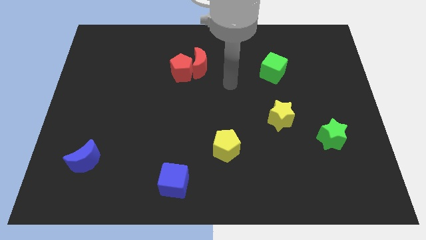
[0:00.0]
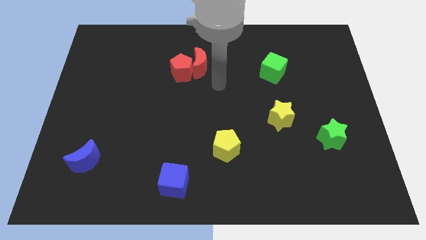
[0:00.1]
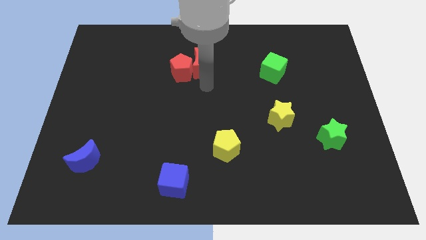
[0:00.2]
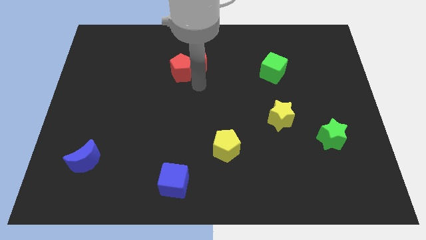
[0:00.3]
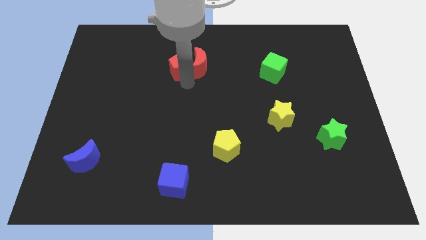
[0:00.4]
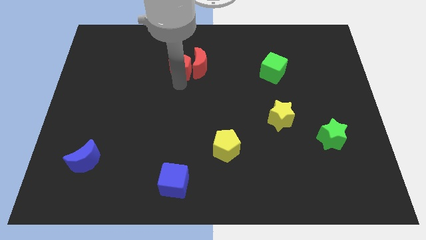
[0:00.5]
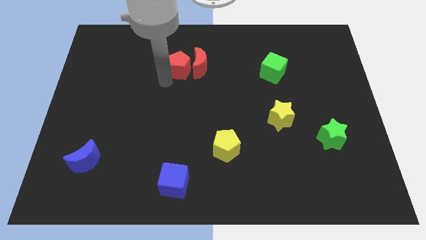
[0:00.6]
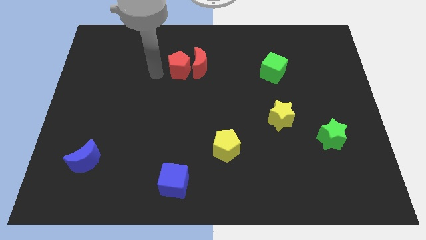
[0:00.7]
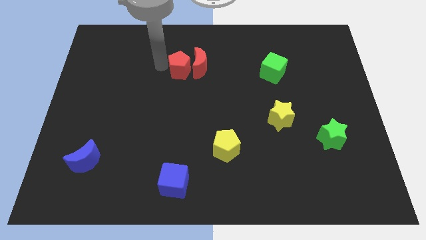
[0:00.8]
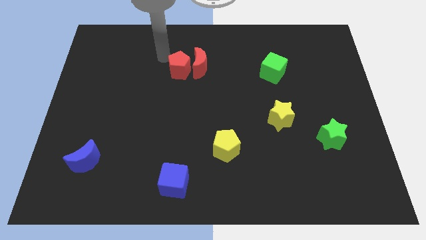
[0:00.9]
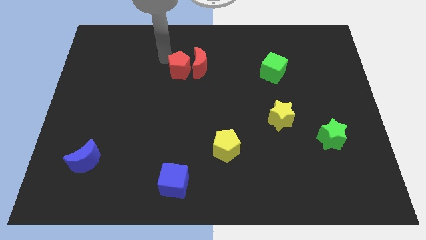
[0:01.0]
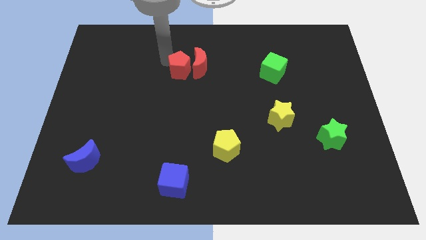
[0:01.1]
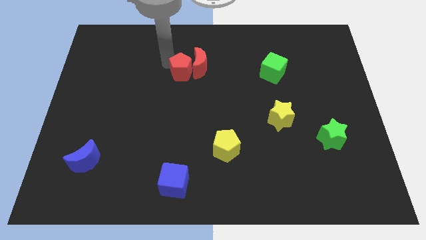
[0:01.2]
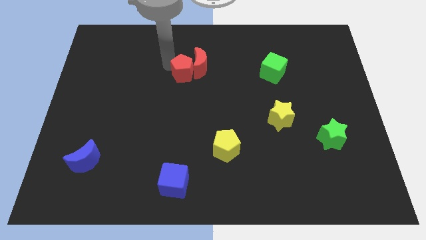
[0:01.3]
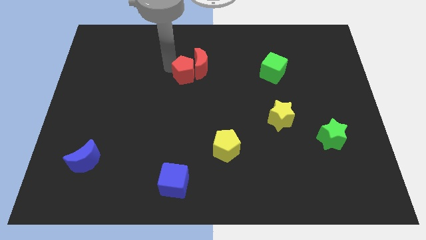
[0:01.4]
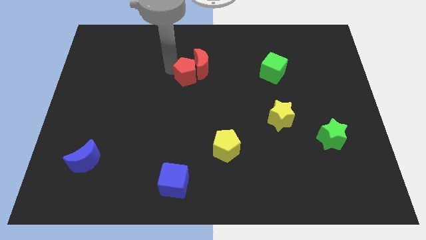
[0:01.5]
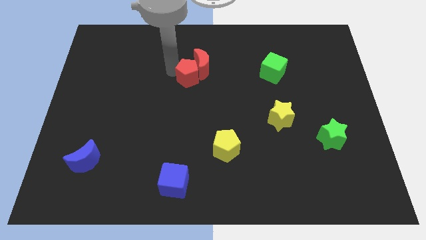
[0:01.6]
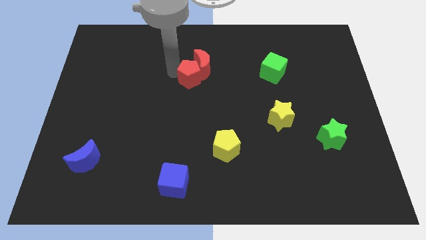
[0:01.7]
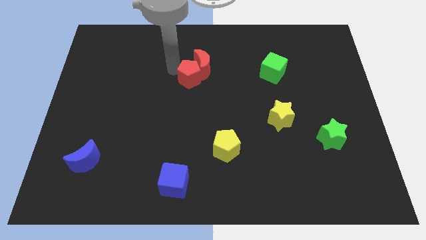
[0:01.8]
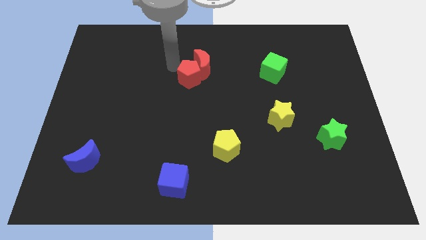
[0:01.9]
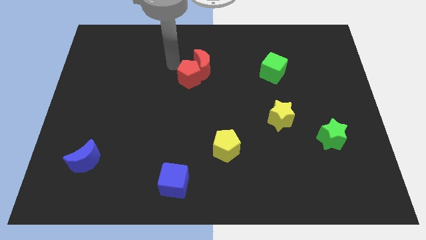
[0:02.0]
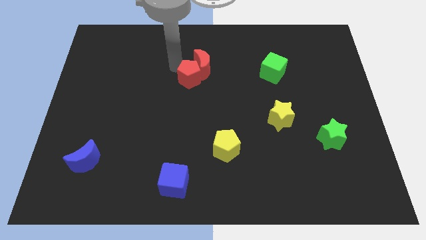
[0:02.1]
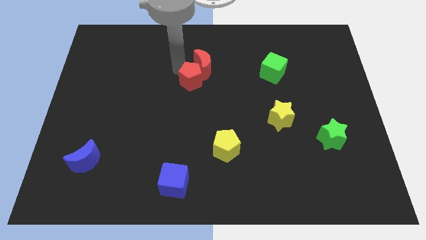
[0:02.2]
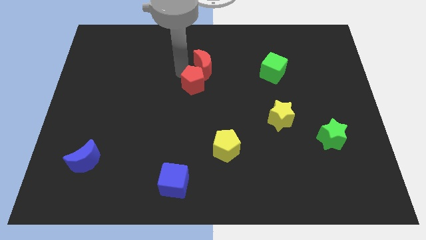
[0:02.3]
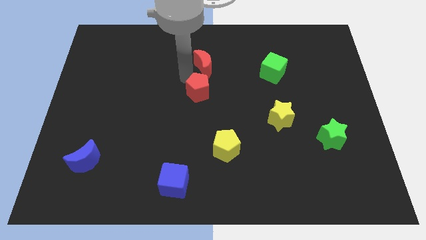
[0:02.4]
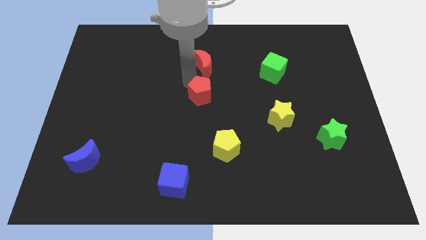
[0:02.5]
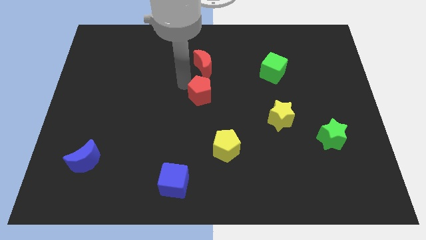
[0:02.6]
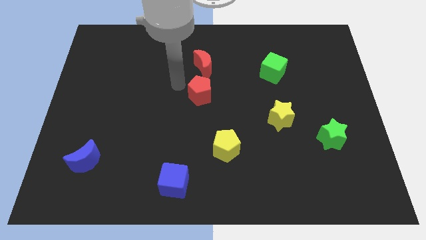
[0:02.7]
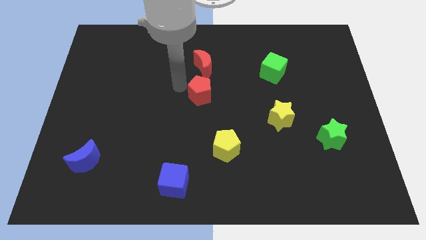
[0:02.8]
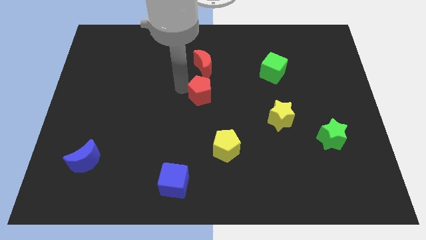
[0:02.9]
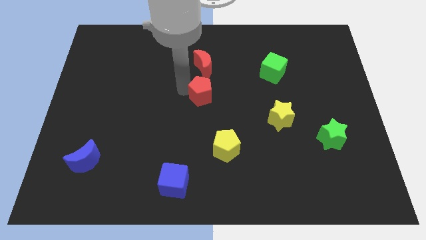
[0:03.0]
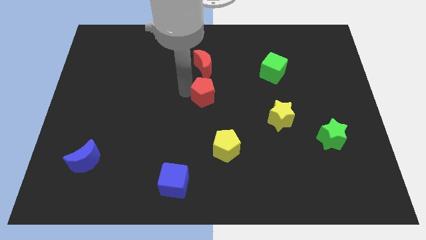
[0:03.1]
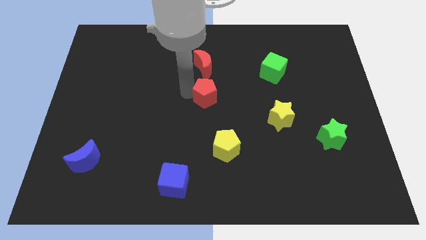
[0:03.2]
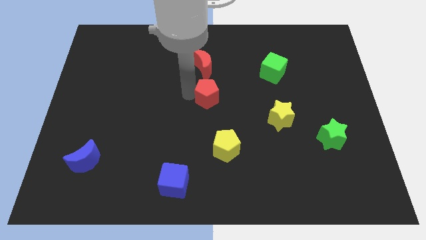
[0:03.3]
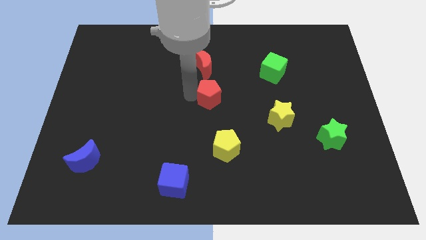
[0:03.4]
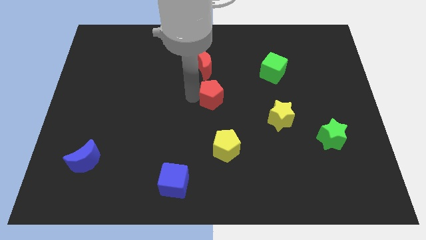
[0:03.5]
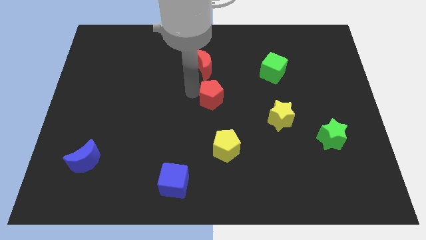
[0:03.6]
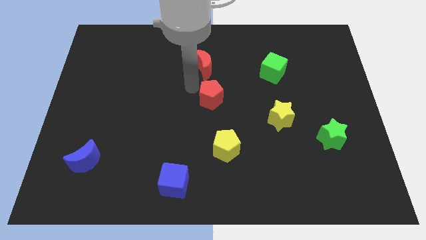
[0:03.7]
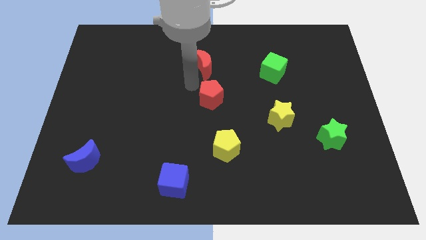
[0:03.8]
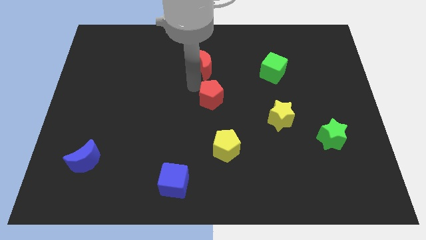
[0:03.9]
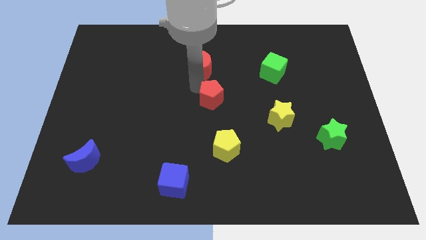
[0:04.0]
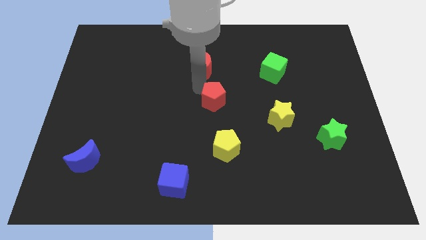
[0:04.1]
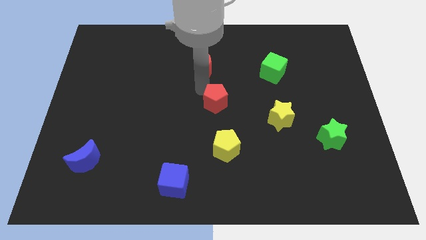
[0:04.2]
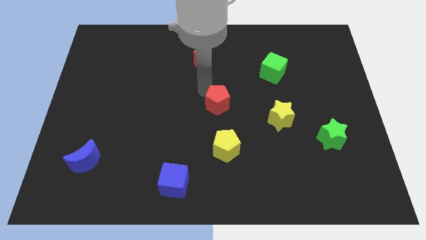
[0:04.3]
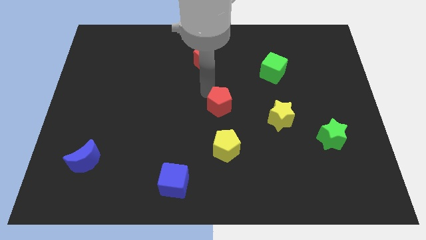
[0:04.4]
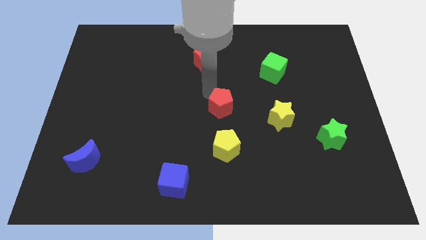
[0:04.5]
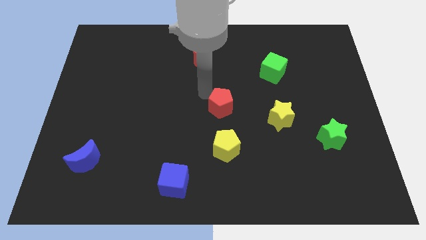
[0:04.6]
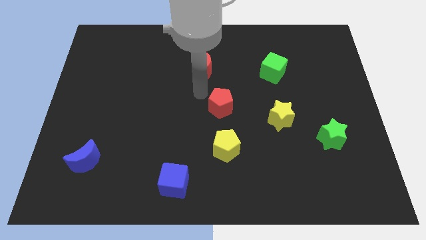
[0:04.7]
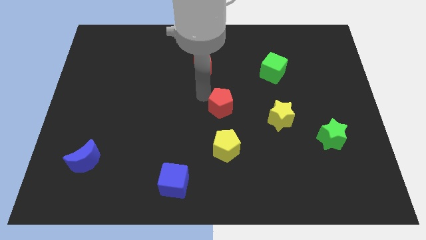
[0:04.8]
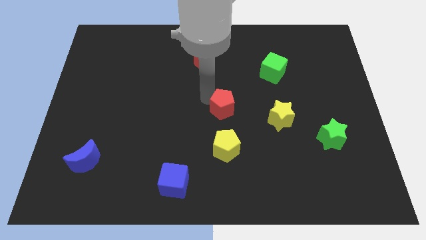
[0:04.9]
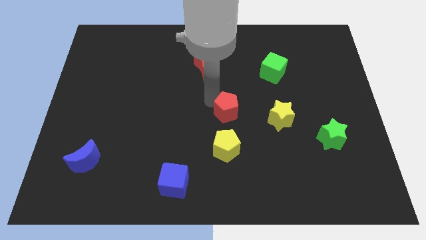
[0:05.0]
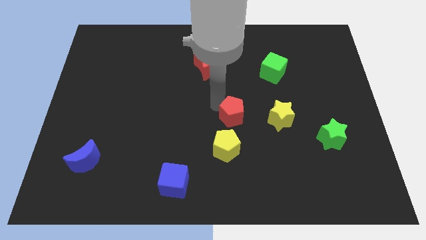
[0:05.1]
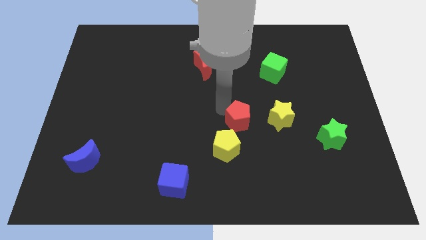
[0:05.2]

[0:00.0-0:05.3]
move the red pentagon diagonally up and to the right of the yellow pentagon

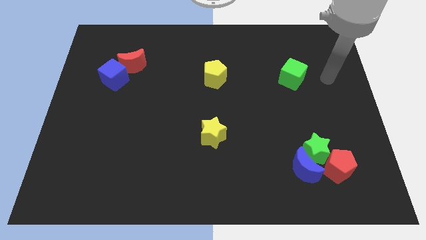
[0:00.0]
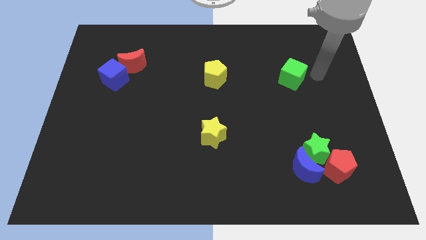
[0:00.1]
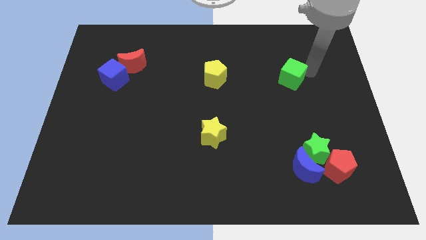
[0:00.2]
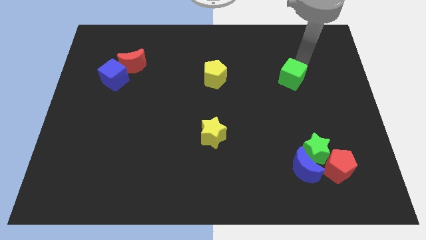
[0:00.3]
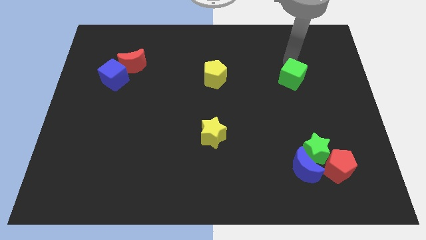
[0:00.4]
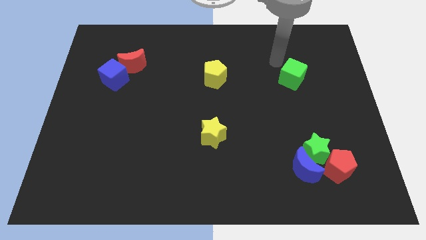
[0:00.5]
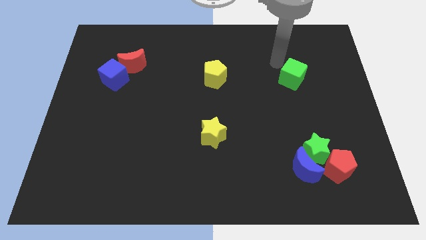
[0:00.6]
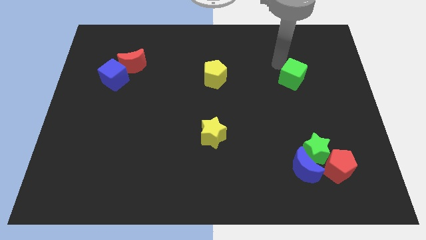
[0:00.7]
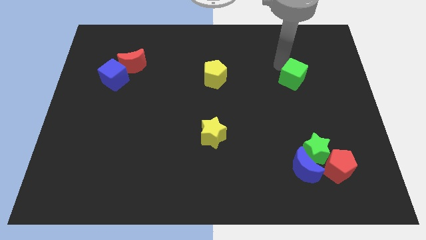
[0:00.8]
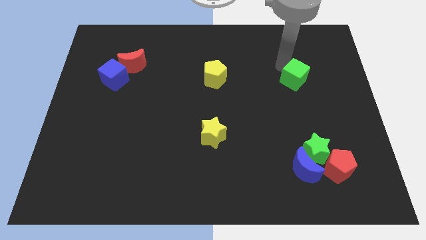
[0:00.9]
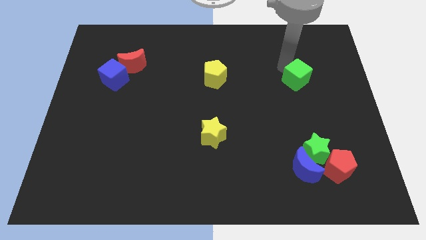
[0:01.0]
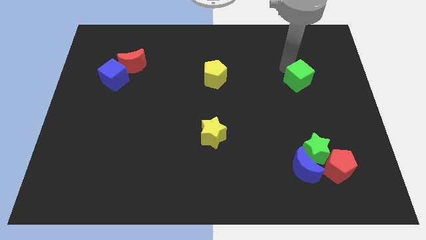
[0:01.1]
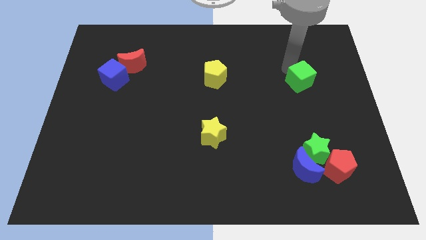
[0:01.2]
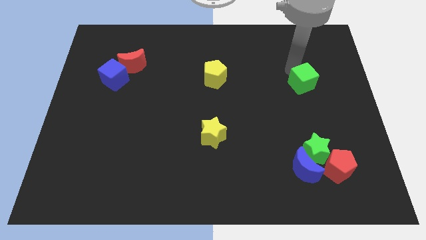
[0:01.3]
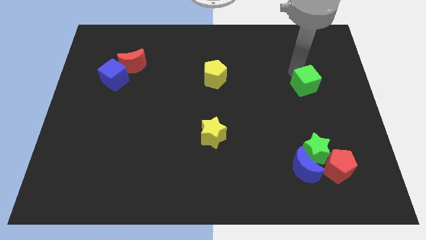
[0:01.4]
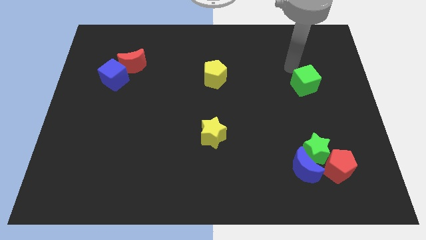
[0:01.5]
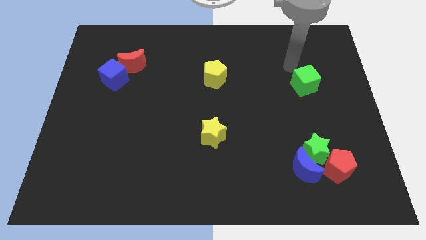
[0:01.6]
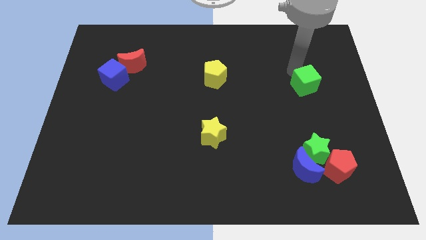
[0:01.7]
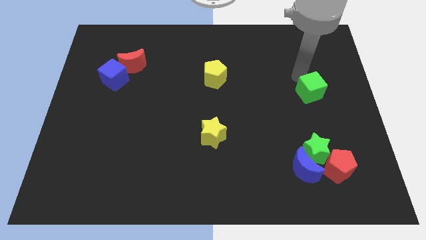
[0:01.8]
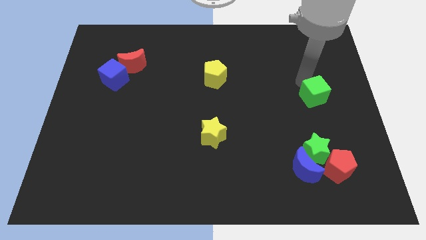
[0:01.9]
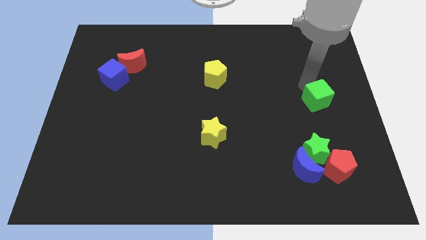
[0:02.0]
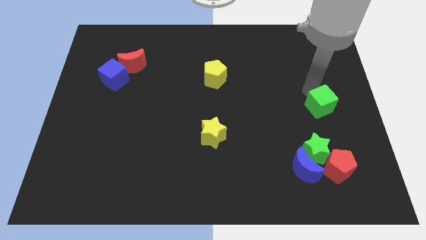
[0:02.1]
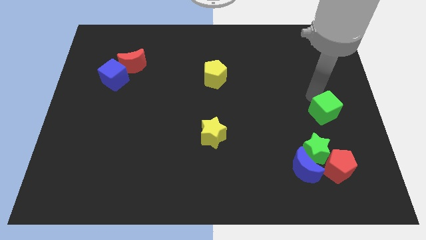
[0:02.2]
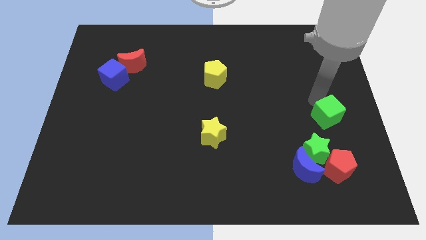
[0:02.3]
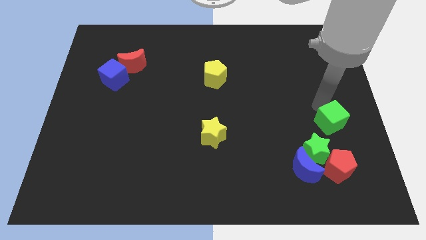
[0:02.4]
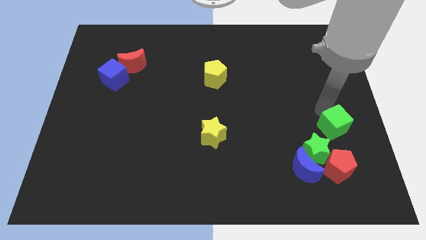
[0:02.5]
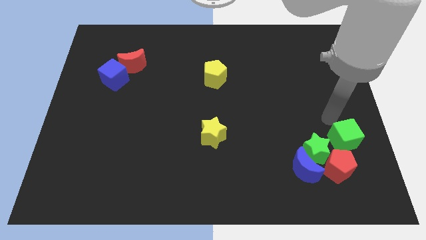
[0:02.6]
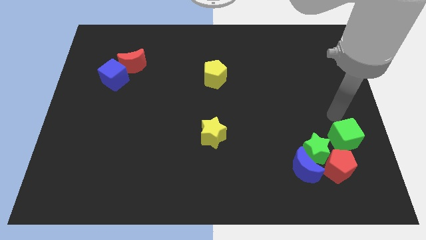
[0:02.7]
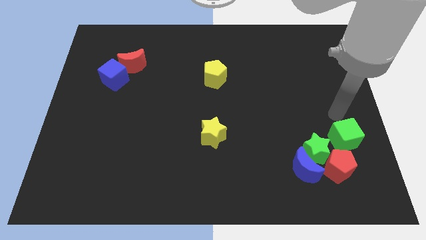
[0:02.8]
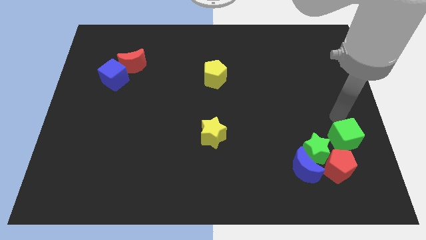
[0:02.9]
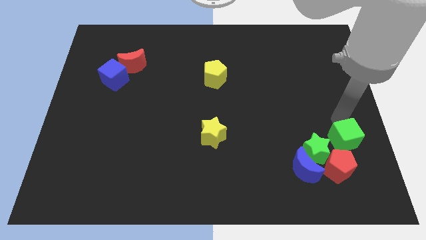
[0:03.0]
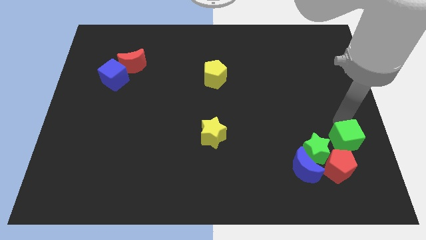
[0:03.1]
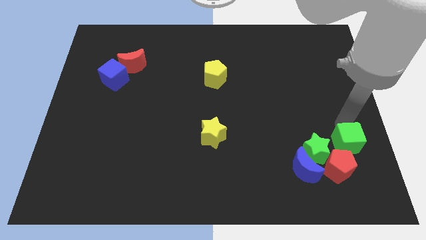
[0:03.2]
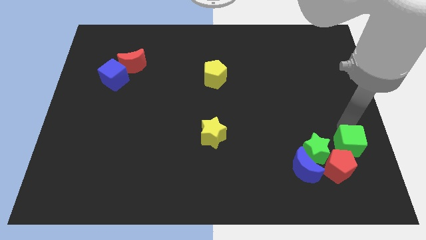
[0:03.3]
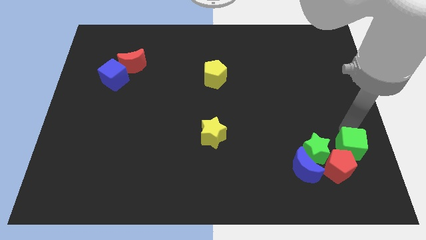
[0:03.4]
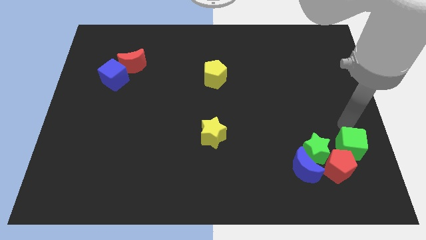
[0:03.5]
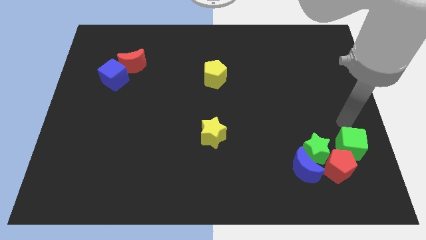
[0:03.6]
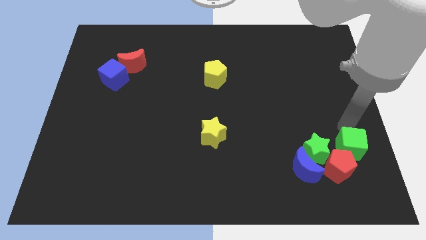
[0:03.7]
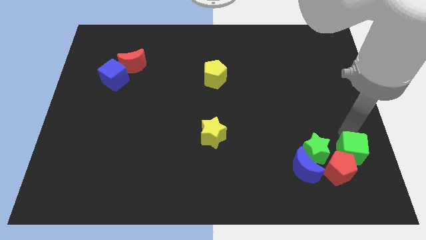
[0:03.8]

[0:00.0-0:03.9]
move the green cube to the right of the blue moon
